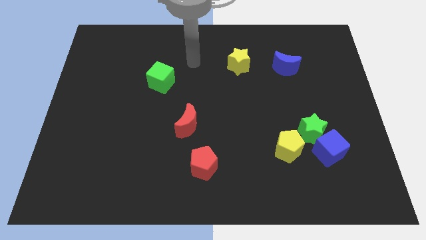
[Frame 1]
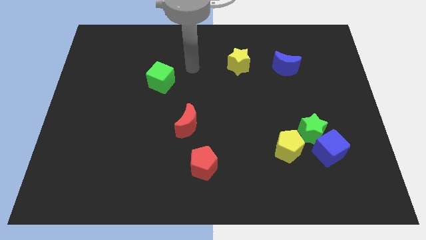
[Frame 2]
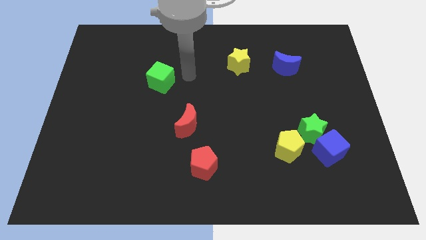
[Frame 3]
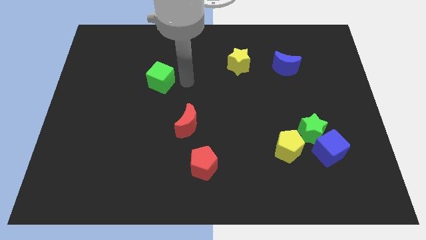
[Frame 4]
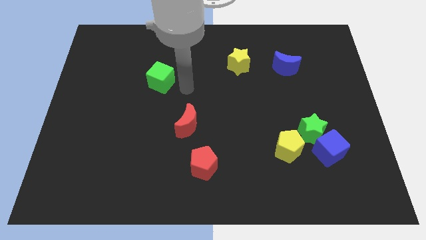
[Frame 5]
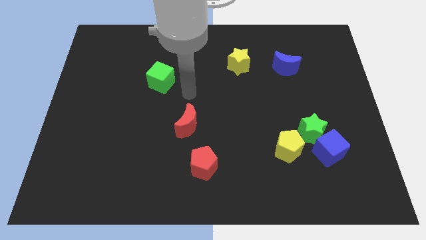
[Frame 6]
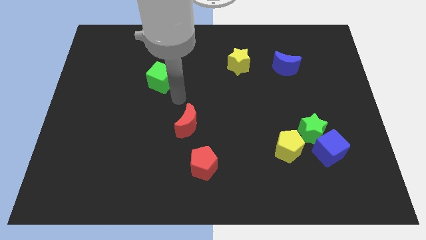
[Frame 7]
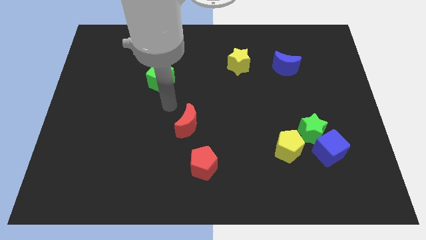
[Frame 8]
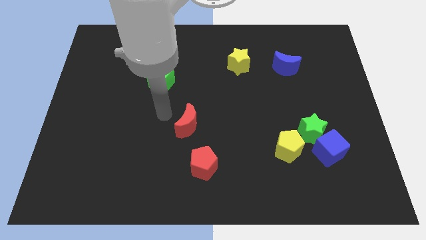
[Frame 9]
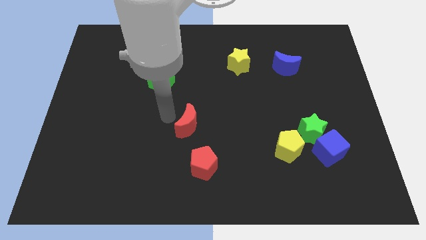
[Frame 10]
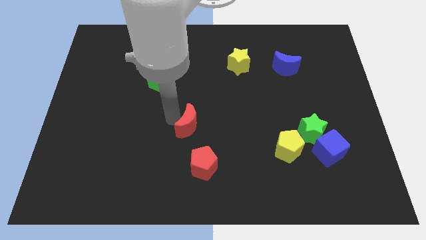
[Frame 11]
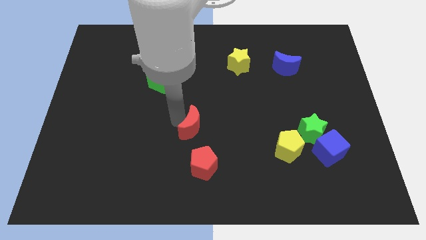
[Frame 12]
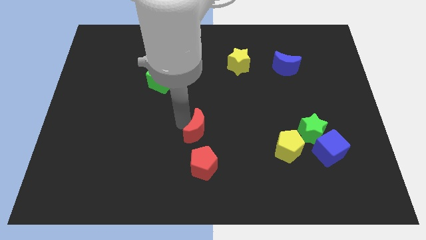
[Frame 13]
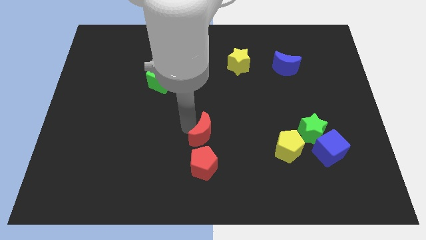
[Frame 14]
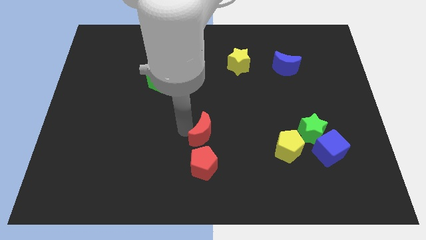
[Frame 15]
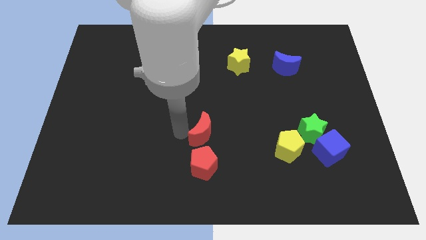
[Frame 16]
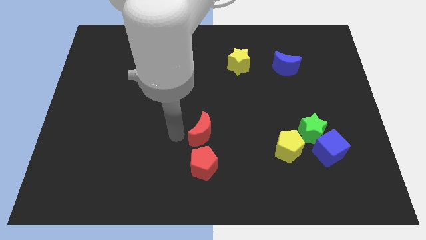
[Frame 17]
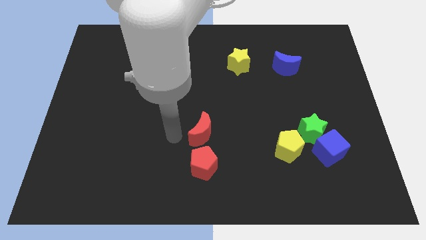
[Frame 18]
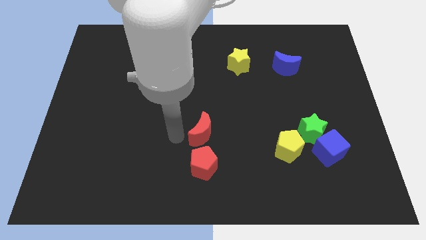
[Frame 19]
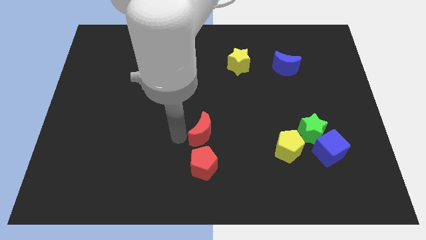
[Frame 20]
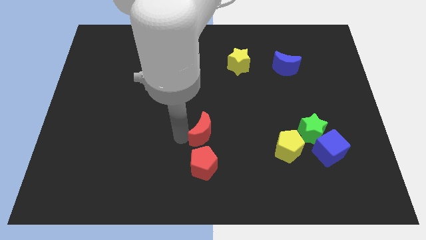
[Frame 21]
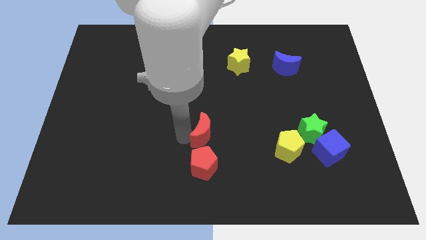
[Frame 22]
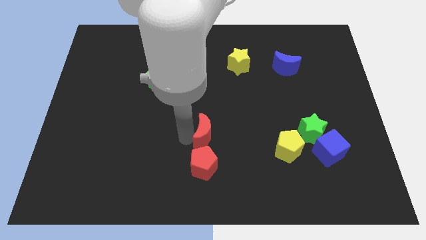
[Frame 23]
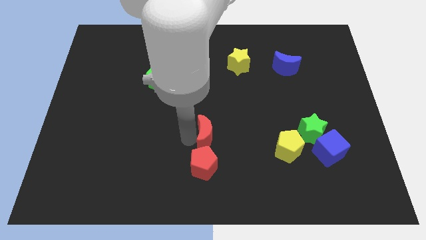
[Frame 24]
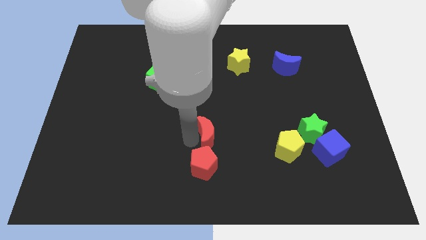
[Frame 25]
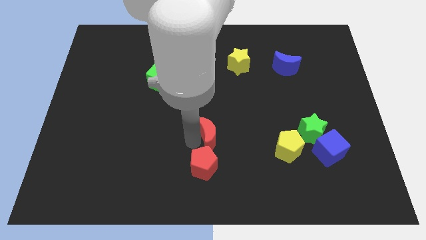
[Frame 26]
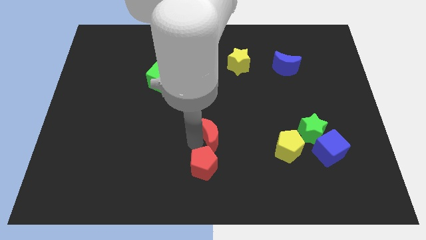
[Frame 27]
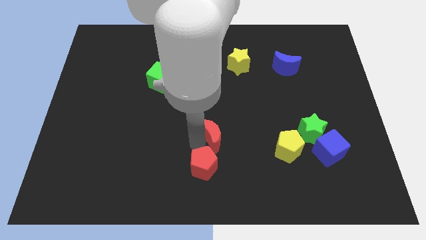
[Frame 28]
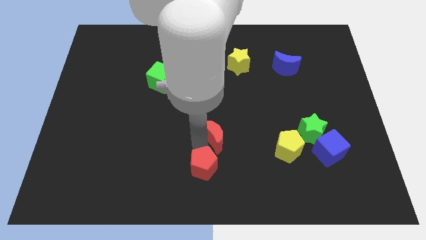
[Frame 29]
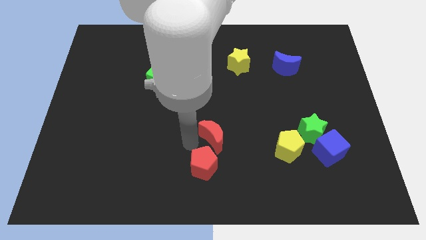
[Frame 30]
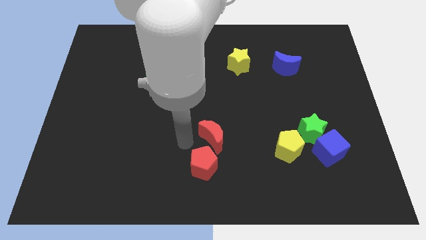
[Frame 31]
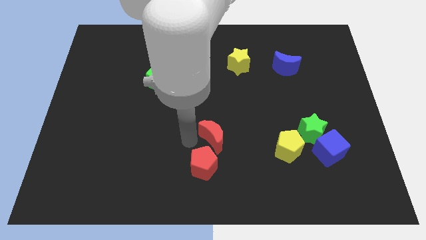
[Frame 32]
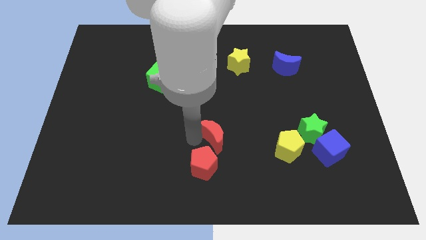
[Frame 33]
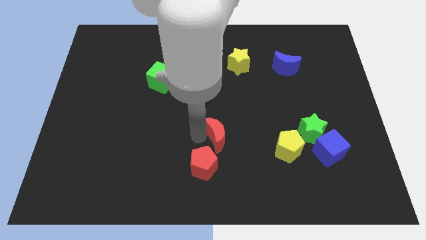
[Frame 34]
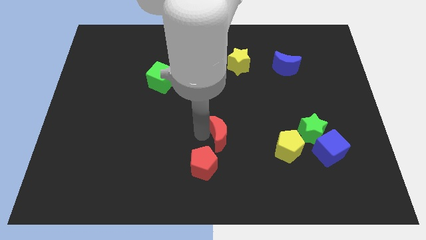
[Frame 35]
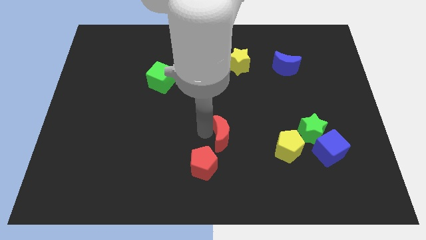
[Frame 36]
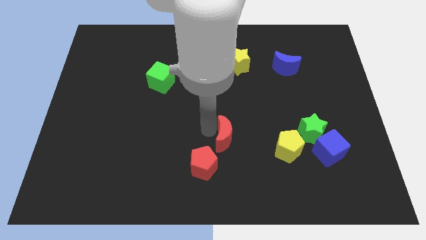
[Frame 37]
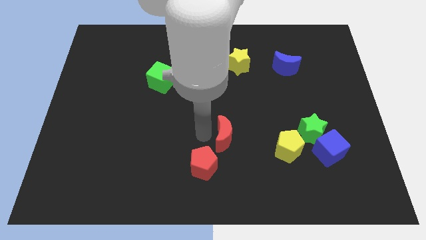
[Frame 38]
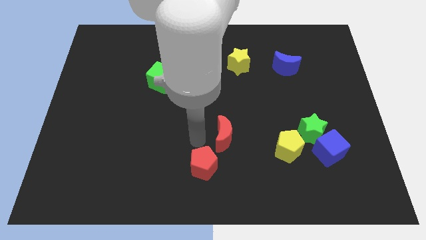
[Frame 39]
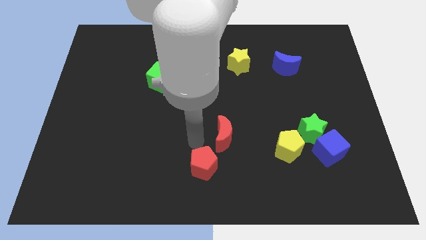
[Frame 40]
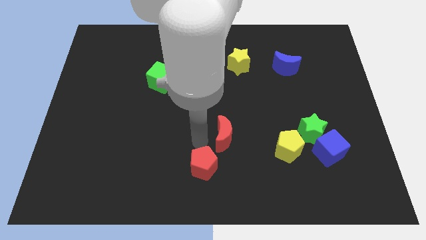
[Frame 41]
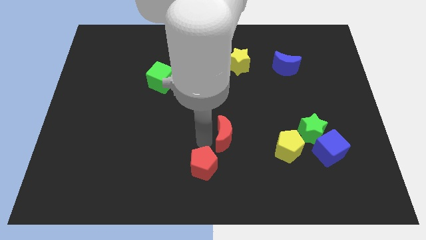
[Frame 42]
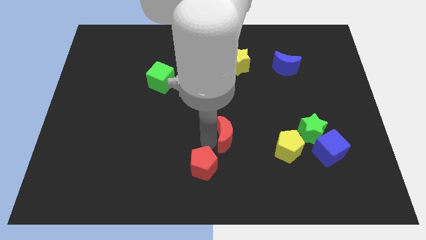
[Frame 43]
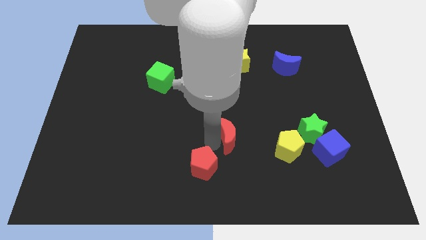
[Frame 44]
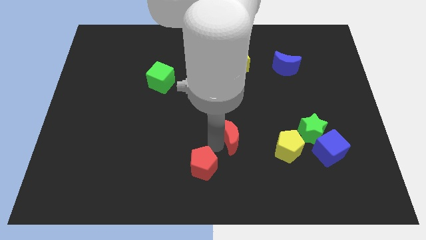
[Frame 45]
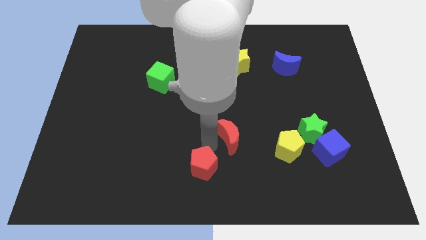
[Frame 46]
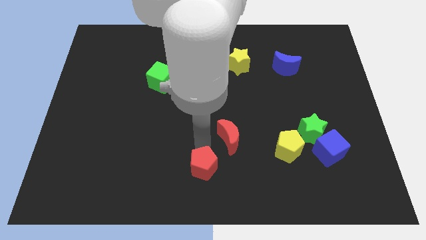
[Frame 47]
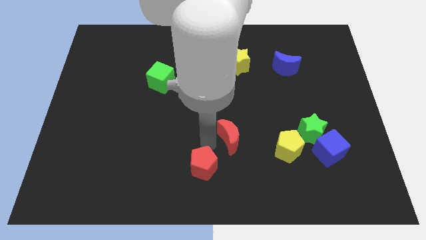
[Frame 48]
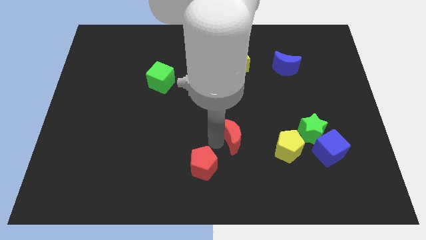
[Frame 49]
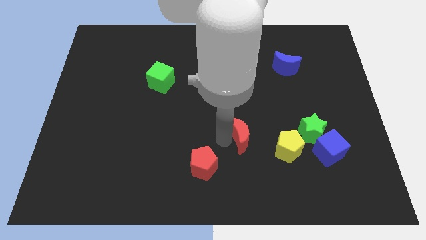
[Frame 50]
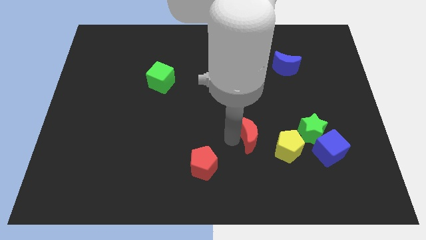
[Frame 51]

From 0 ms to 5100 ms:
put the red moon diagonally up and to the left of the yellow pentagon

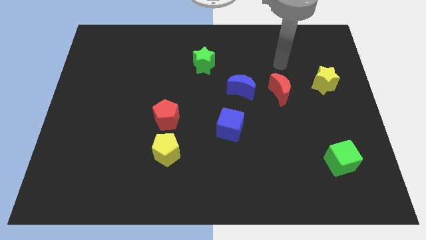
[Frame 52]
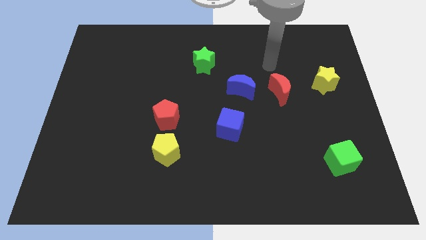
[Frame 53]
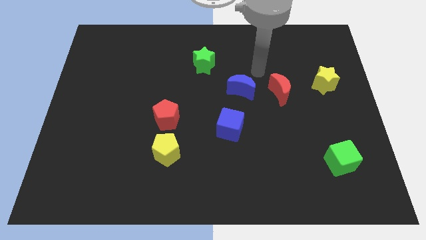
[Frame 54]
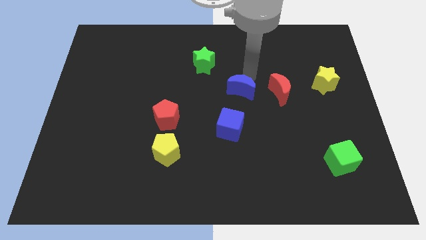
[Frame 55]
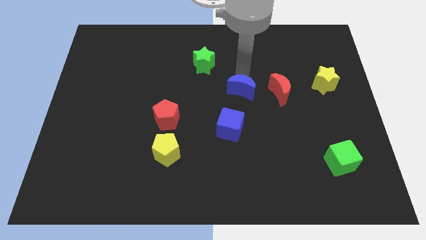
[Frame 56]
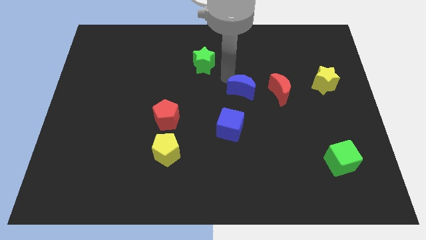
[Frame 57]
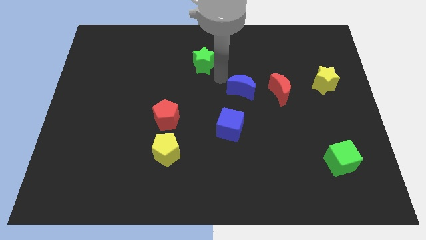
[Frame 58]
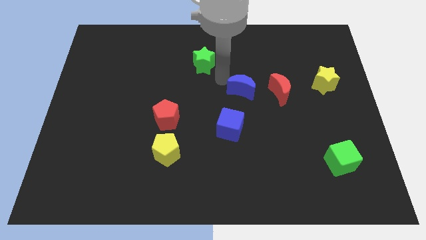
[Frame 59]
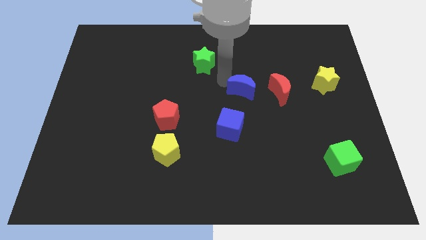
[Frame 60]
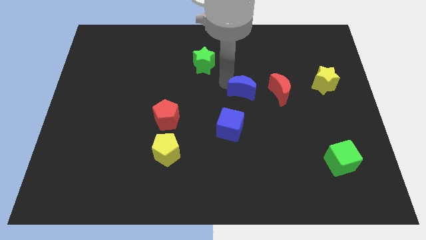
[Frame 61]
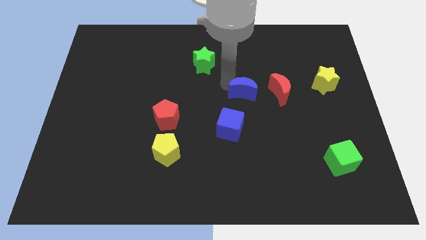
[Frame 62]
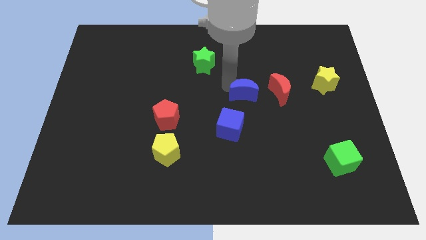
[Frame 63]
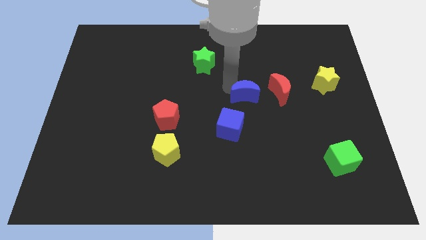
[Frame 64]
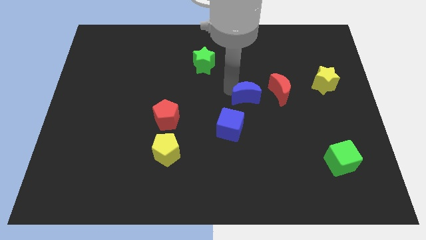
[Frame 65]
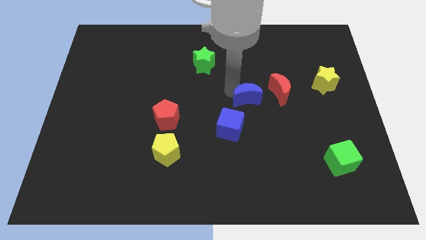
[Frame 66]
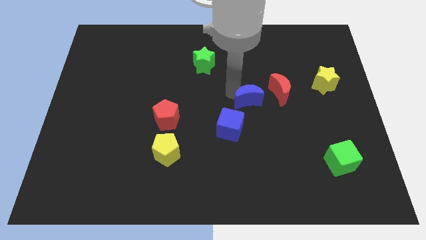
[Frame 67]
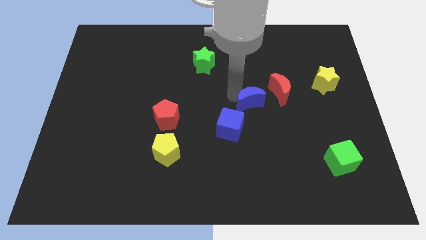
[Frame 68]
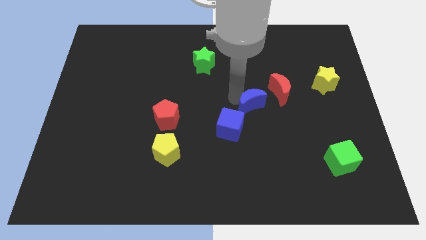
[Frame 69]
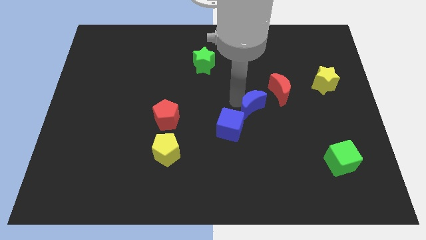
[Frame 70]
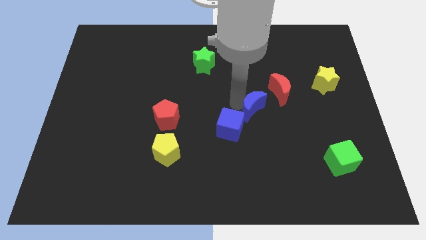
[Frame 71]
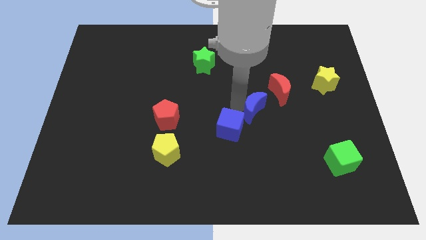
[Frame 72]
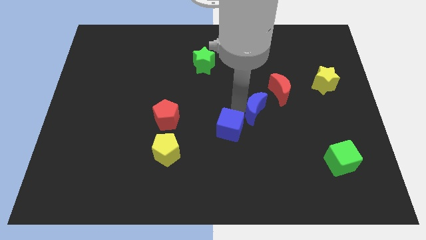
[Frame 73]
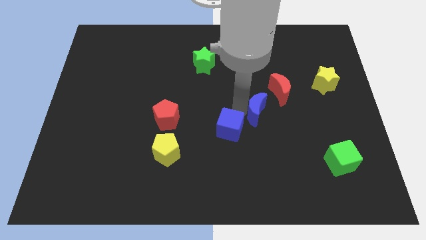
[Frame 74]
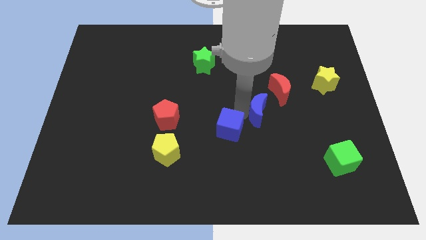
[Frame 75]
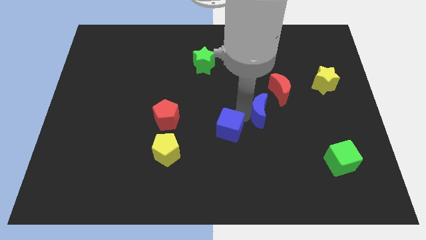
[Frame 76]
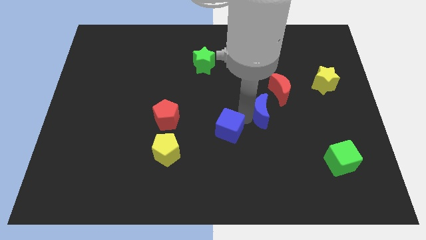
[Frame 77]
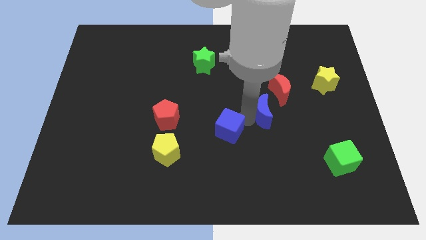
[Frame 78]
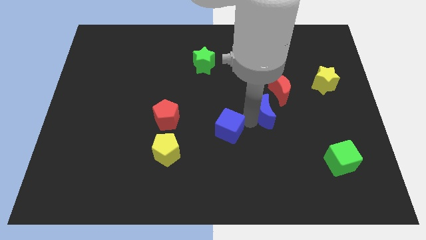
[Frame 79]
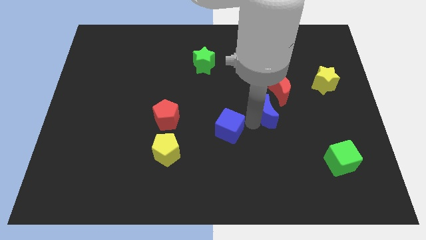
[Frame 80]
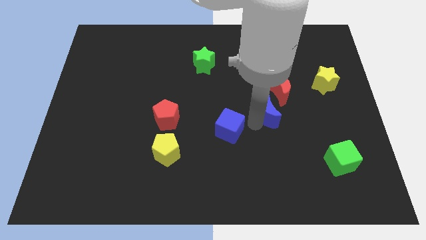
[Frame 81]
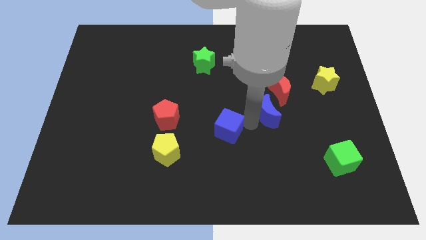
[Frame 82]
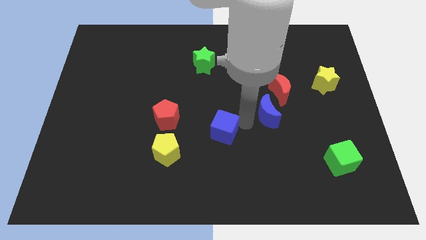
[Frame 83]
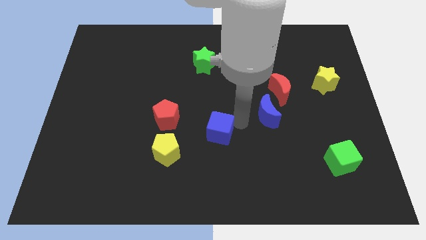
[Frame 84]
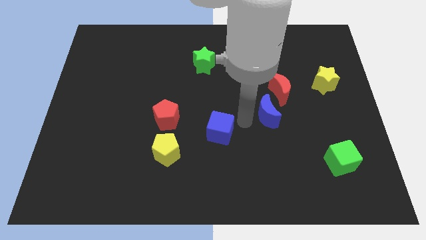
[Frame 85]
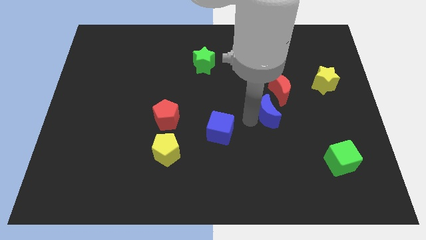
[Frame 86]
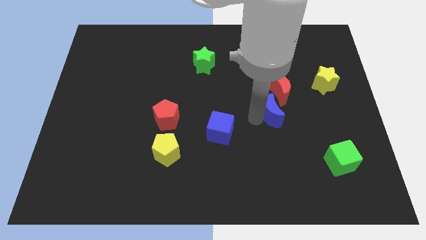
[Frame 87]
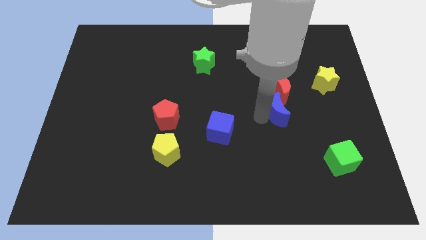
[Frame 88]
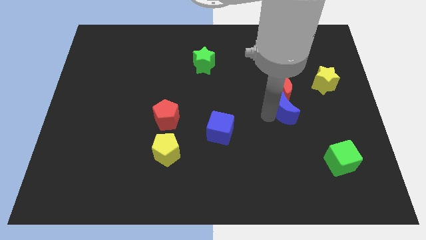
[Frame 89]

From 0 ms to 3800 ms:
move the blue moon to the bottom right side of the red moon
